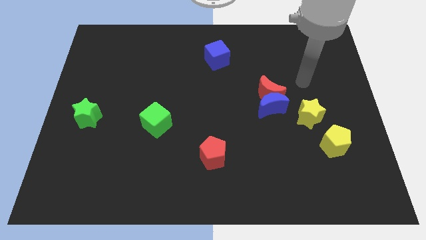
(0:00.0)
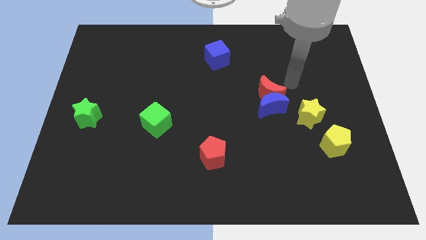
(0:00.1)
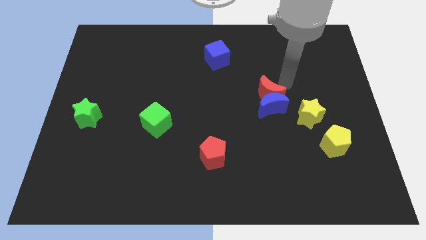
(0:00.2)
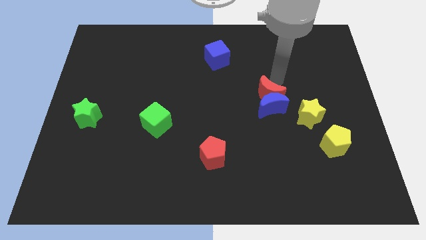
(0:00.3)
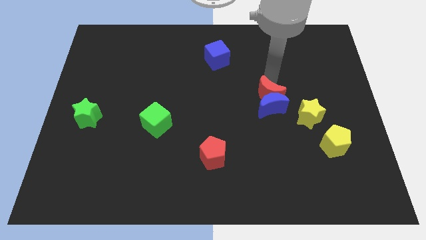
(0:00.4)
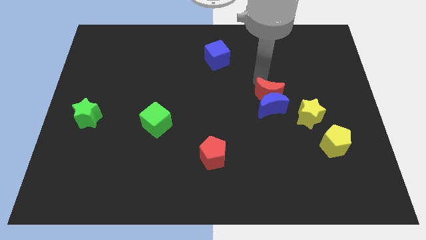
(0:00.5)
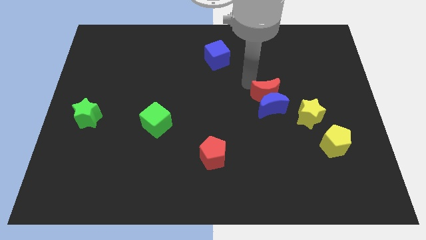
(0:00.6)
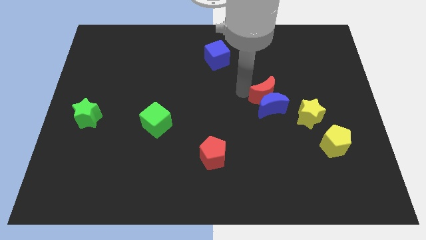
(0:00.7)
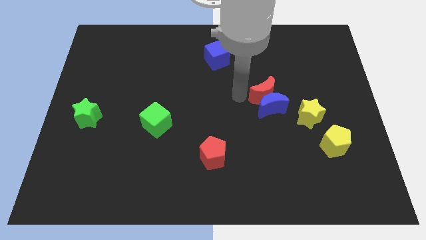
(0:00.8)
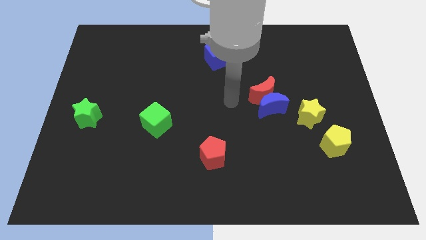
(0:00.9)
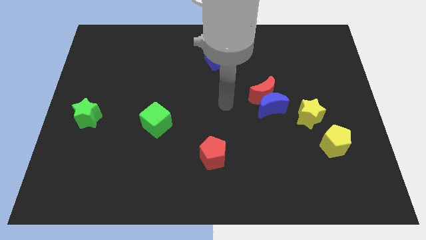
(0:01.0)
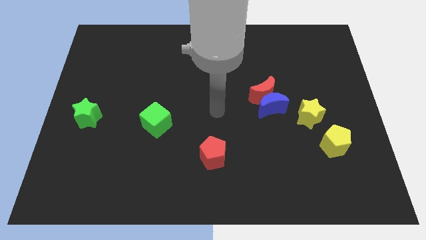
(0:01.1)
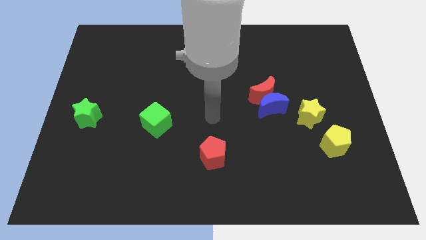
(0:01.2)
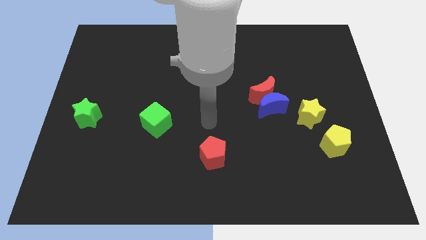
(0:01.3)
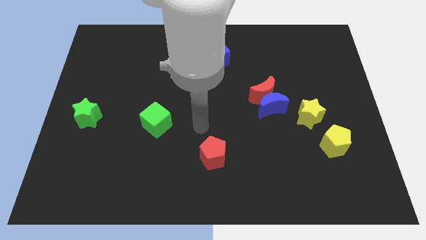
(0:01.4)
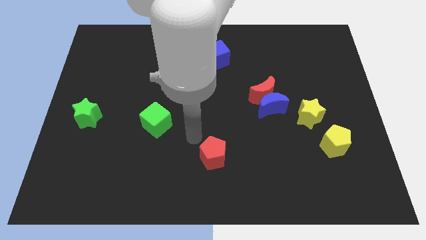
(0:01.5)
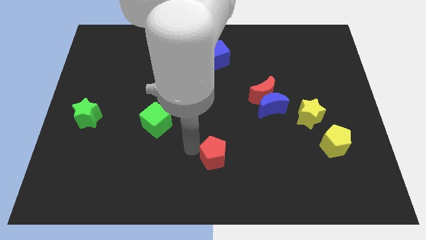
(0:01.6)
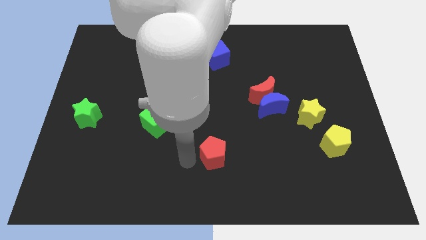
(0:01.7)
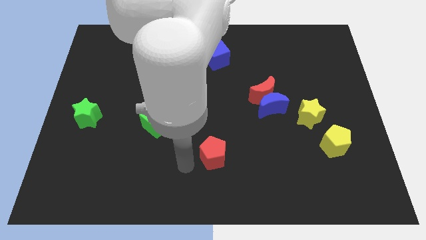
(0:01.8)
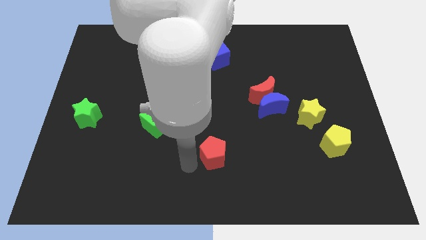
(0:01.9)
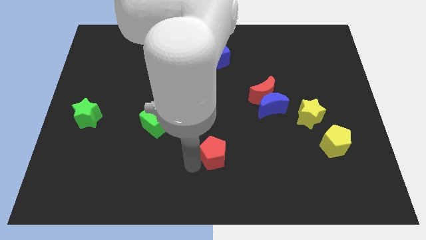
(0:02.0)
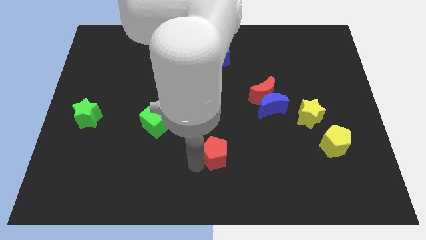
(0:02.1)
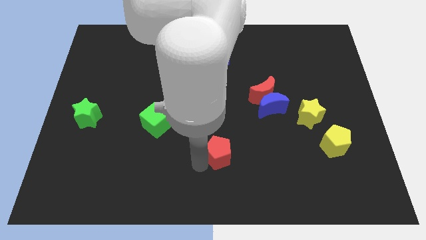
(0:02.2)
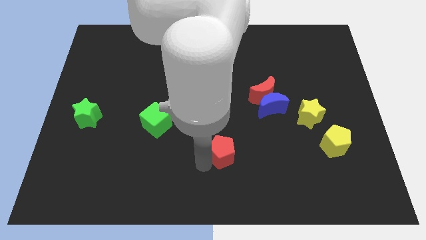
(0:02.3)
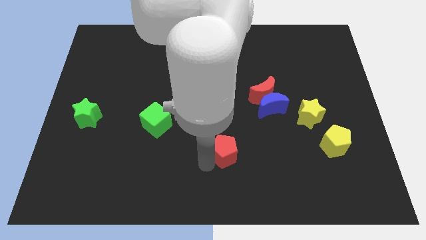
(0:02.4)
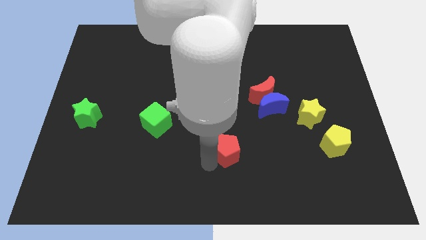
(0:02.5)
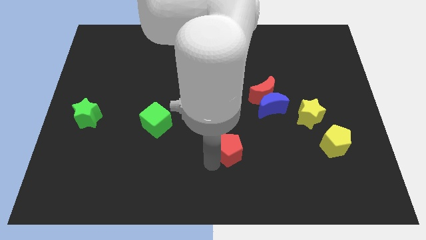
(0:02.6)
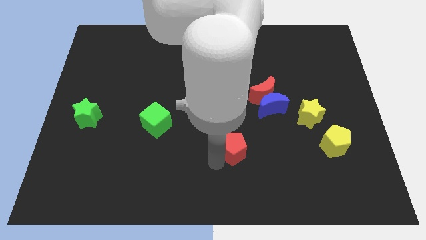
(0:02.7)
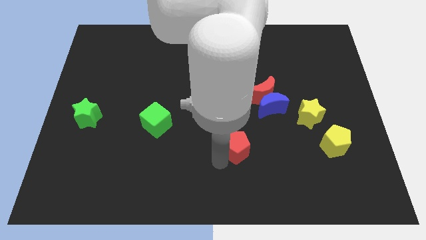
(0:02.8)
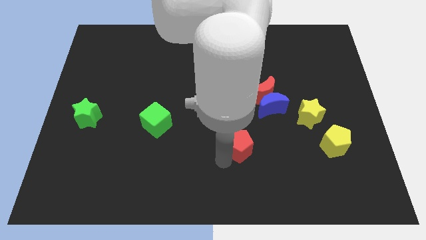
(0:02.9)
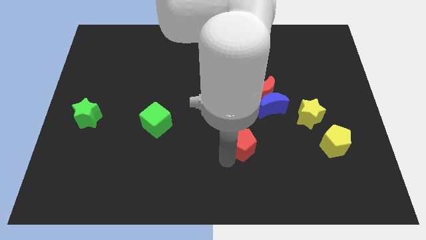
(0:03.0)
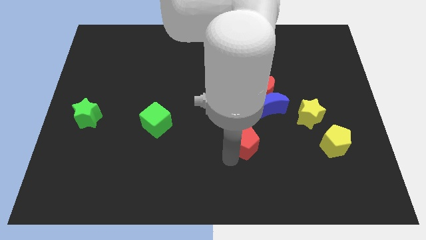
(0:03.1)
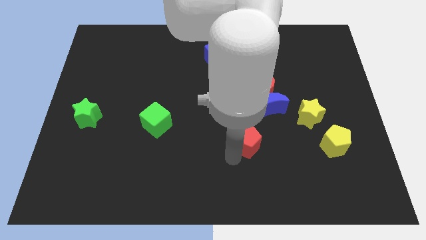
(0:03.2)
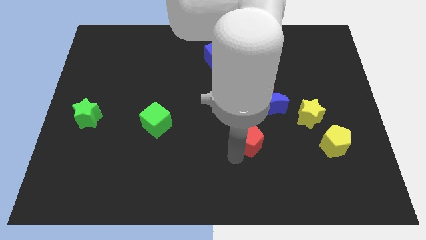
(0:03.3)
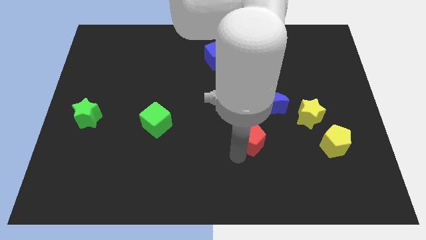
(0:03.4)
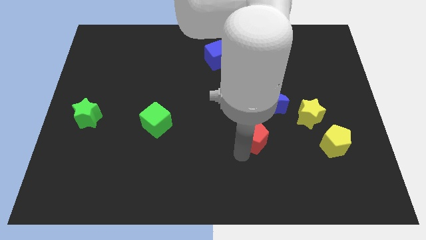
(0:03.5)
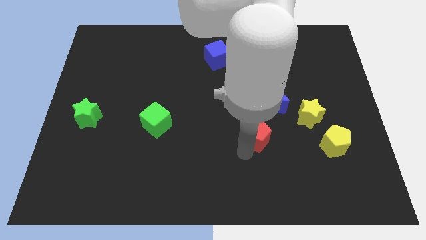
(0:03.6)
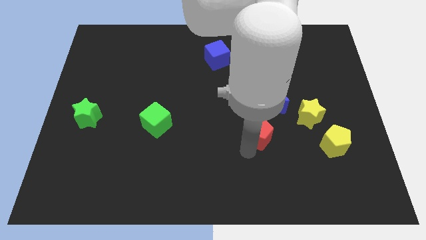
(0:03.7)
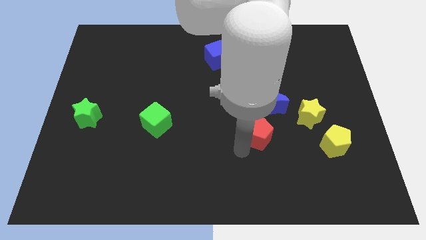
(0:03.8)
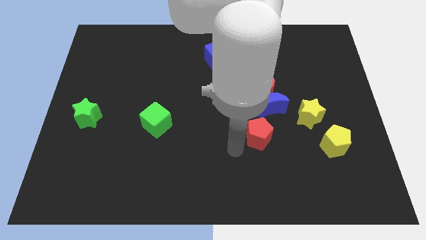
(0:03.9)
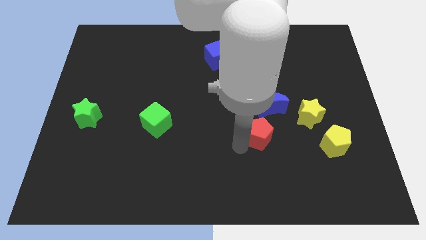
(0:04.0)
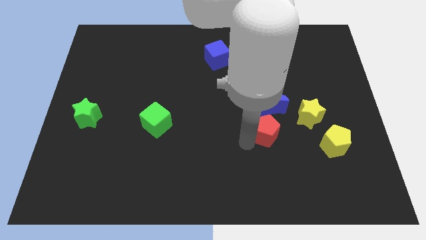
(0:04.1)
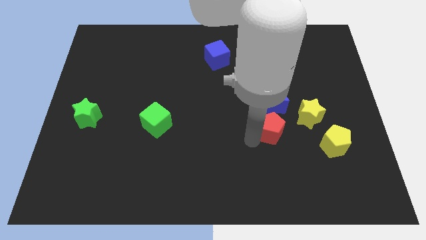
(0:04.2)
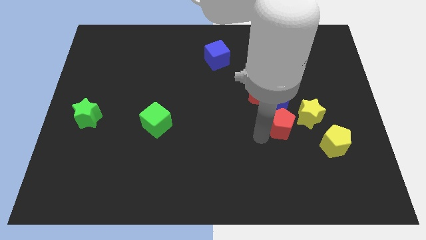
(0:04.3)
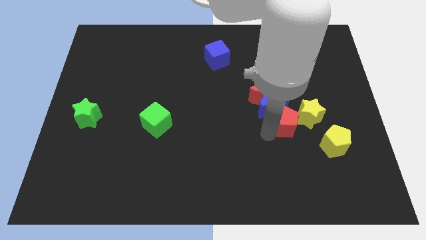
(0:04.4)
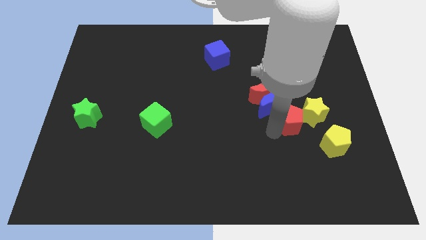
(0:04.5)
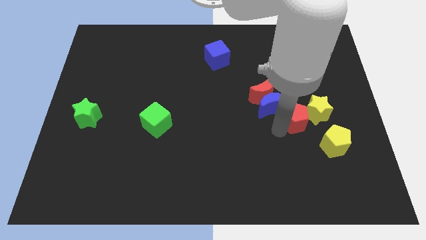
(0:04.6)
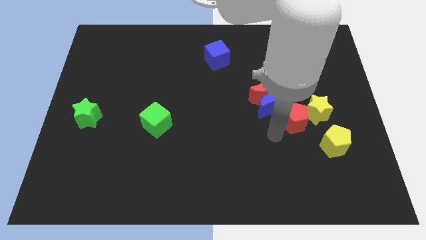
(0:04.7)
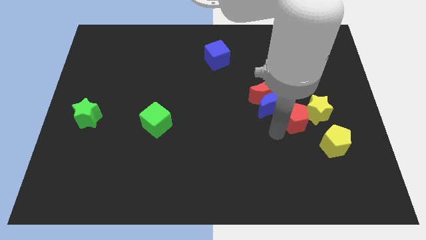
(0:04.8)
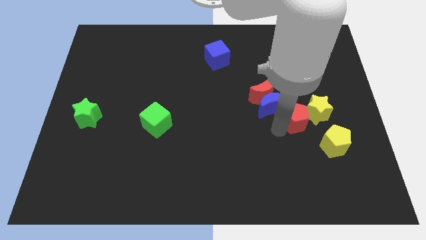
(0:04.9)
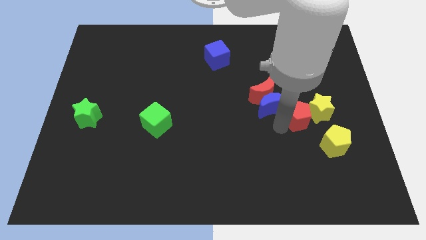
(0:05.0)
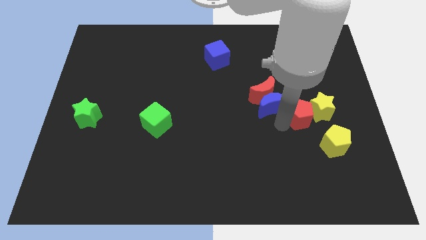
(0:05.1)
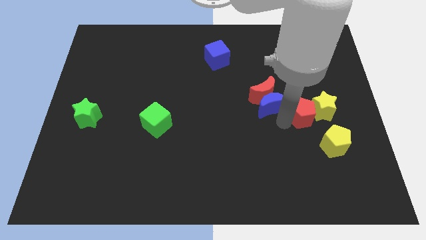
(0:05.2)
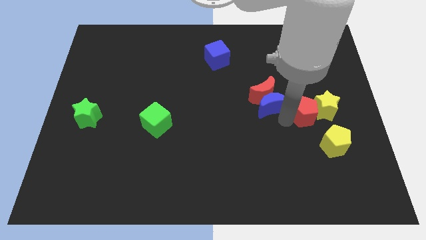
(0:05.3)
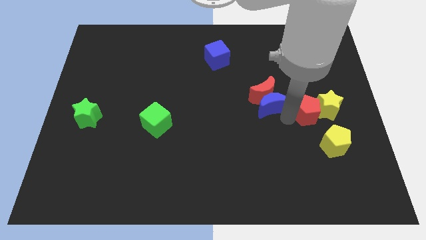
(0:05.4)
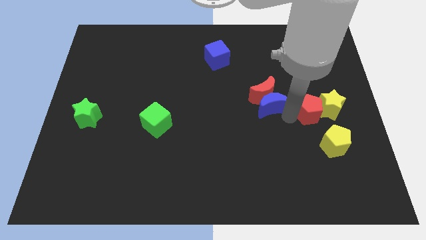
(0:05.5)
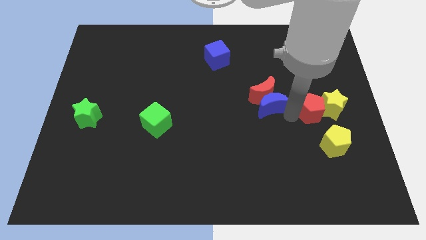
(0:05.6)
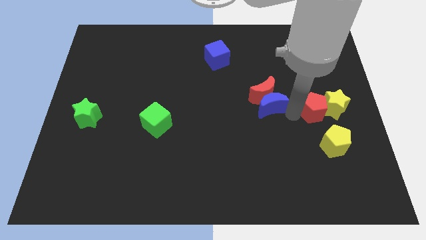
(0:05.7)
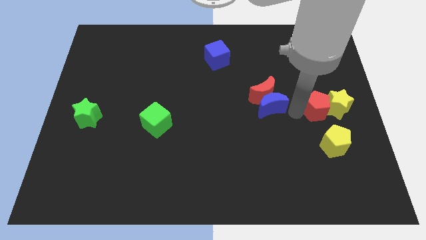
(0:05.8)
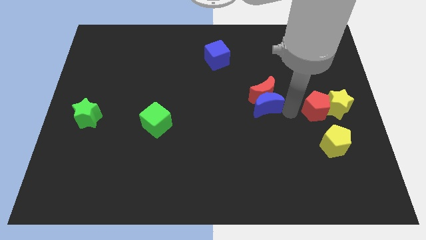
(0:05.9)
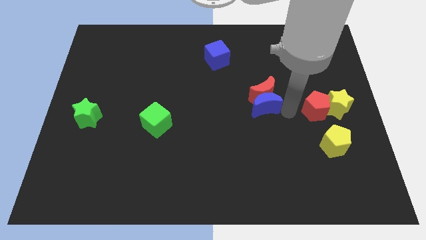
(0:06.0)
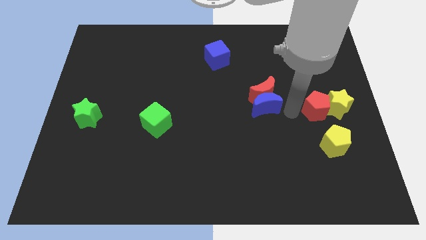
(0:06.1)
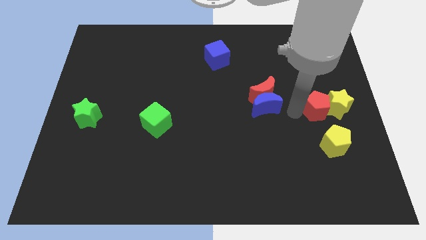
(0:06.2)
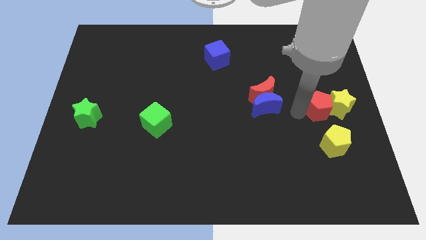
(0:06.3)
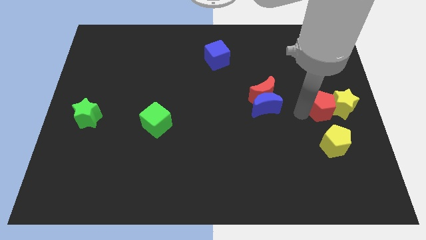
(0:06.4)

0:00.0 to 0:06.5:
slide the red pentagon to the right side of the board
